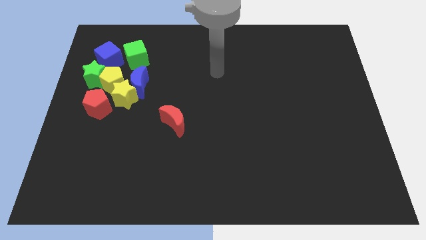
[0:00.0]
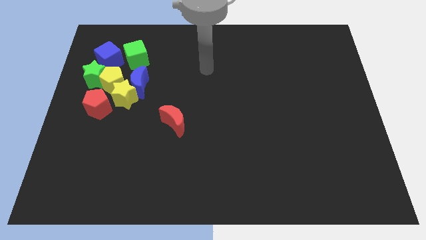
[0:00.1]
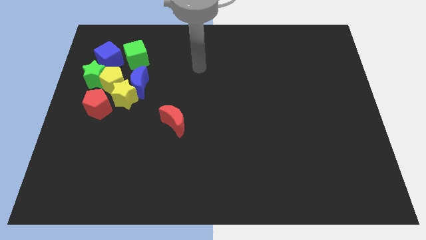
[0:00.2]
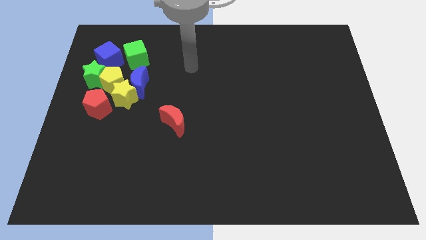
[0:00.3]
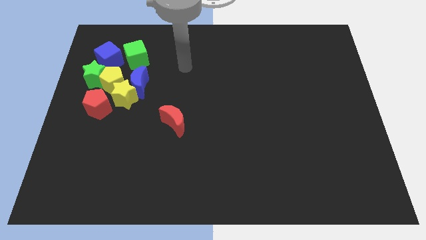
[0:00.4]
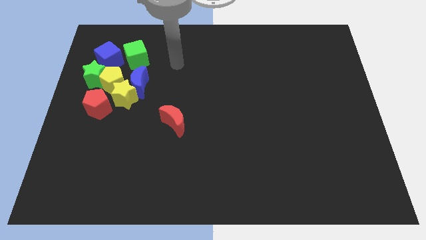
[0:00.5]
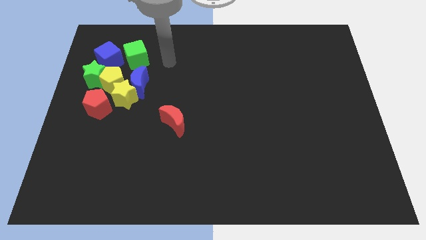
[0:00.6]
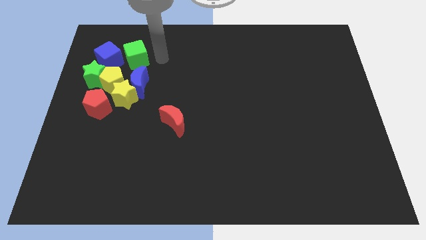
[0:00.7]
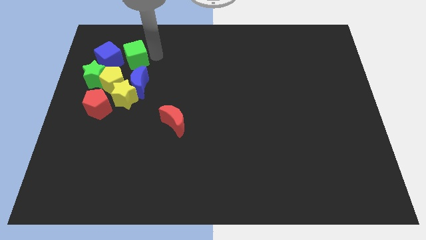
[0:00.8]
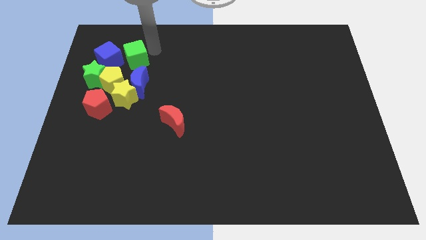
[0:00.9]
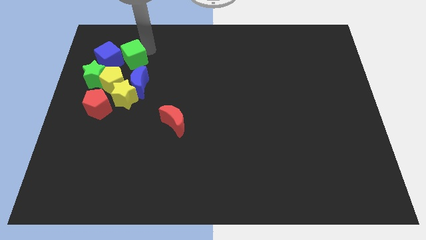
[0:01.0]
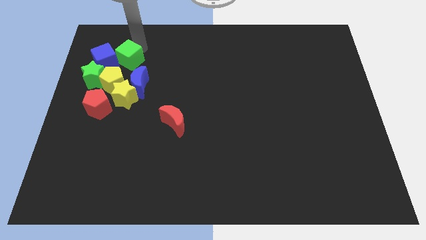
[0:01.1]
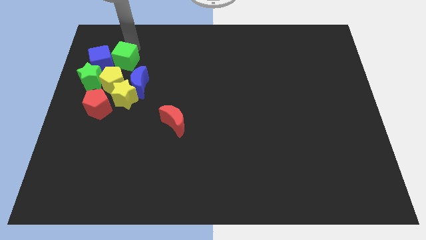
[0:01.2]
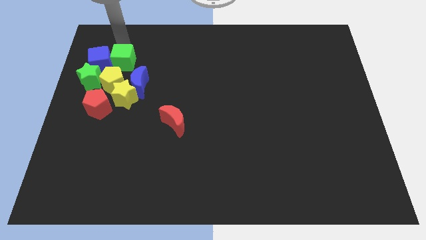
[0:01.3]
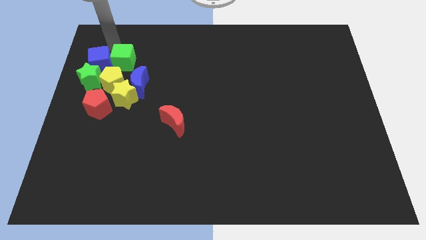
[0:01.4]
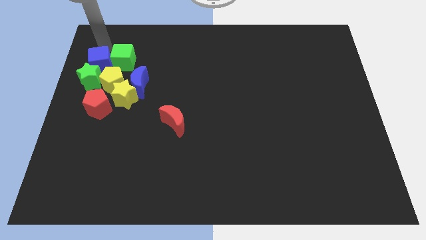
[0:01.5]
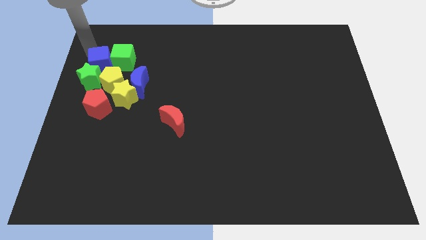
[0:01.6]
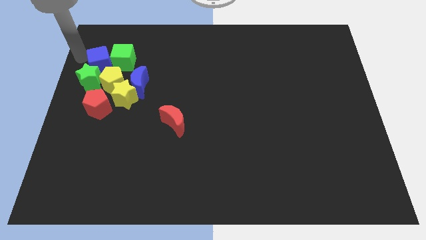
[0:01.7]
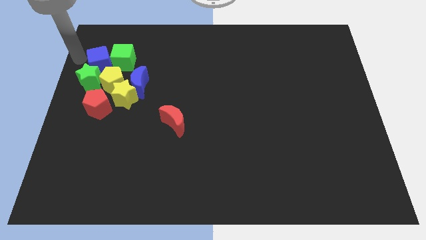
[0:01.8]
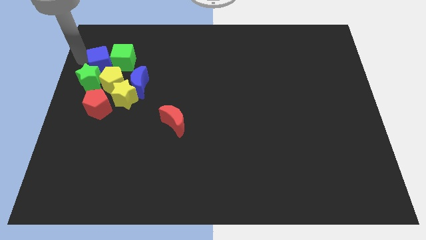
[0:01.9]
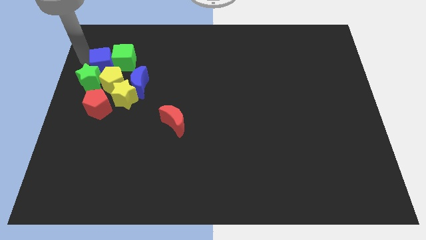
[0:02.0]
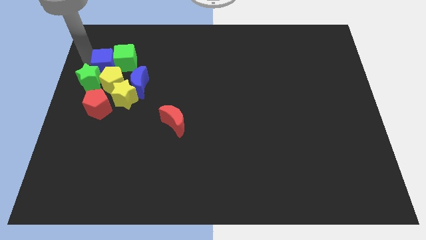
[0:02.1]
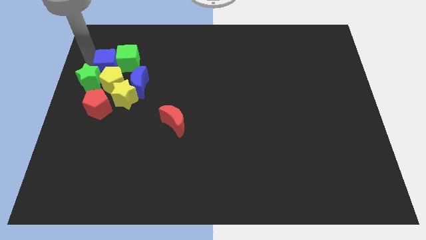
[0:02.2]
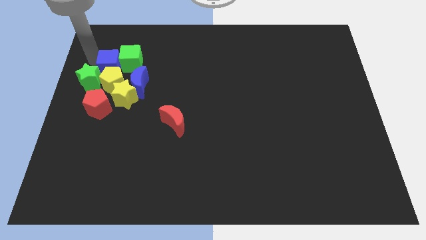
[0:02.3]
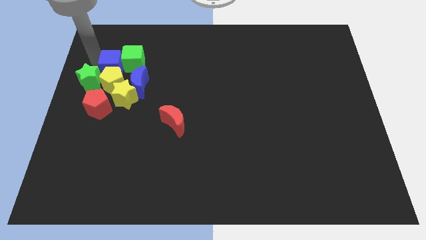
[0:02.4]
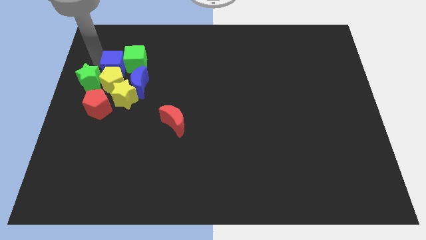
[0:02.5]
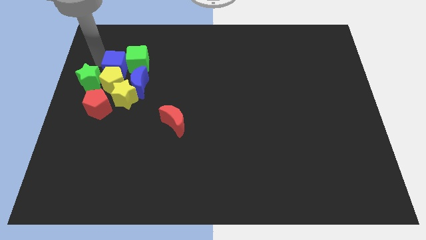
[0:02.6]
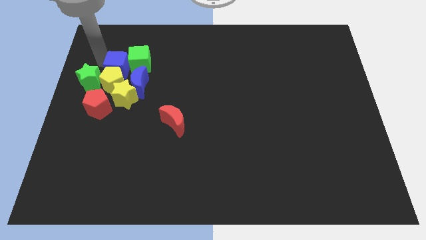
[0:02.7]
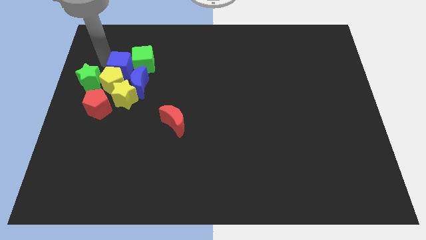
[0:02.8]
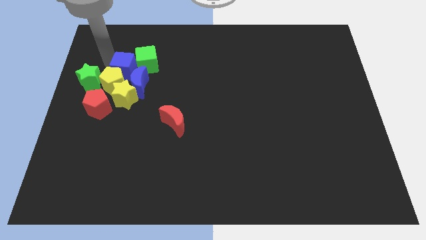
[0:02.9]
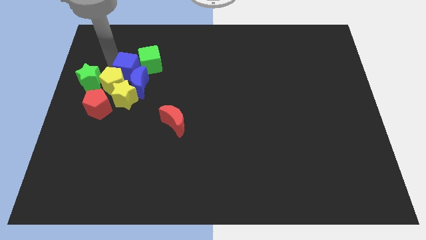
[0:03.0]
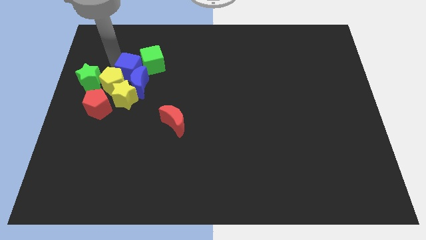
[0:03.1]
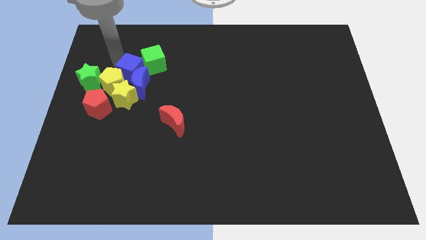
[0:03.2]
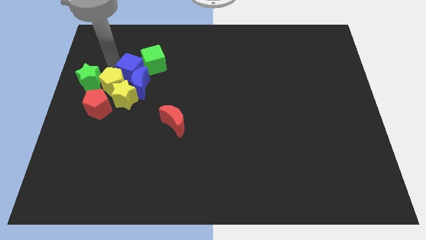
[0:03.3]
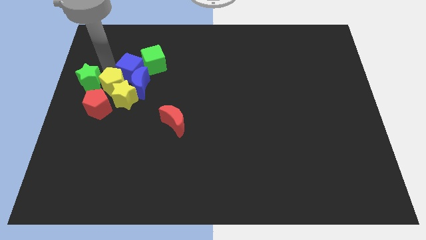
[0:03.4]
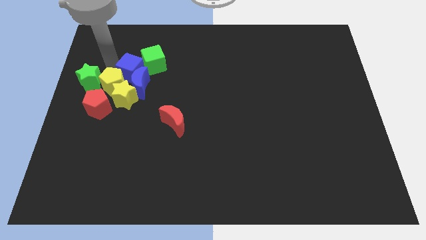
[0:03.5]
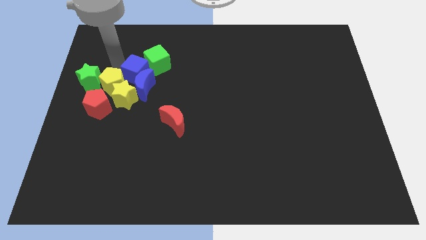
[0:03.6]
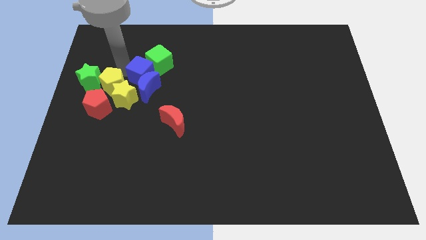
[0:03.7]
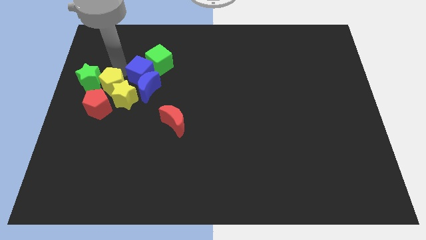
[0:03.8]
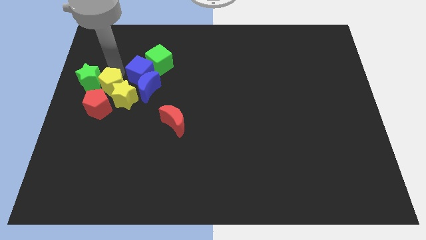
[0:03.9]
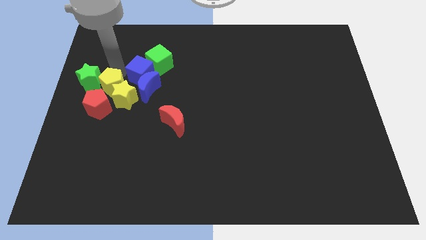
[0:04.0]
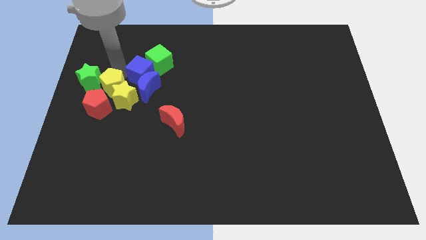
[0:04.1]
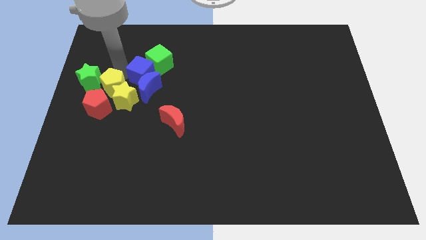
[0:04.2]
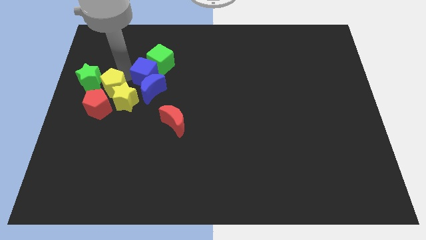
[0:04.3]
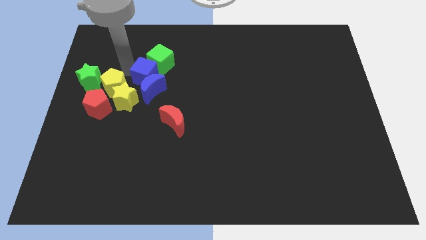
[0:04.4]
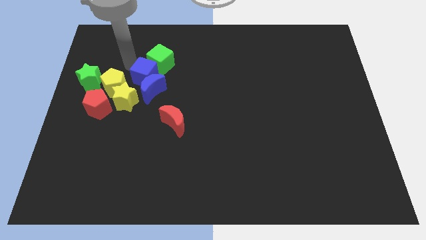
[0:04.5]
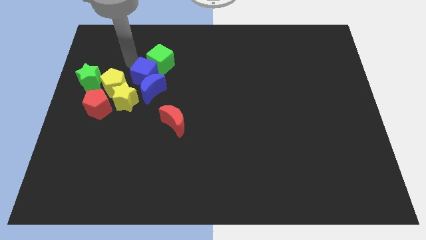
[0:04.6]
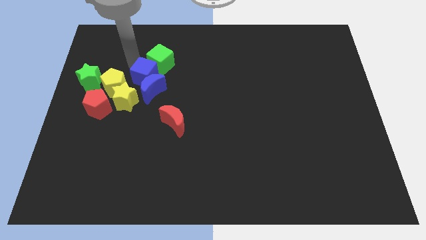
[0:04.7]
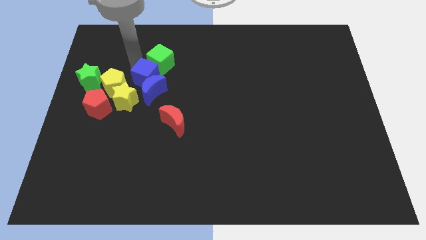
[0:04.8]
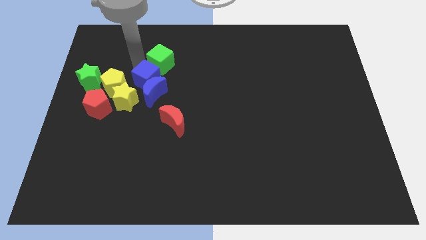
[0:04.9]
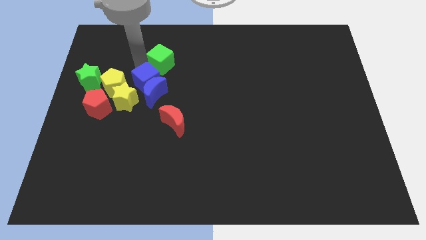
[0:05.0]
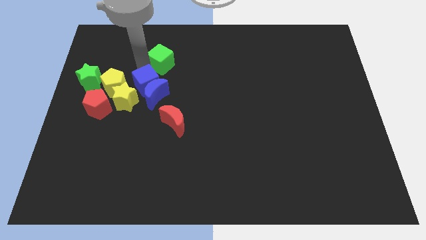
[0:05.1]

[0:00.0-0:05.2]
slide the blue cube to the right side of the yellow star

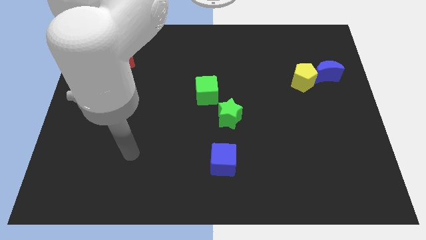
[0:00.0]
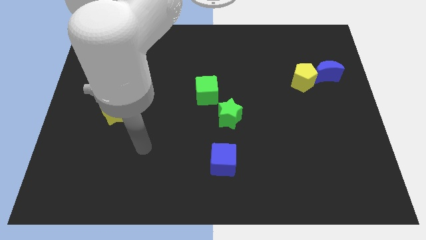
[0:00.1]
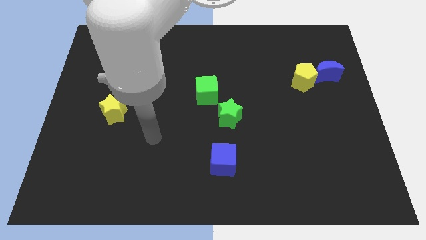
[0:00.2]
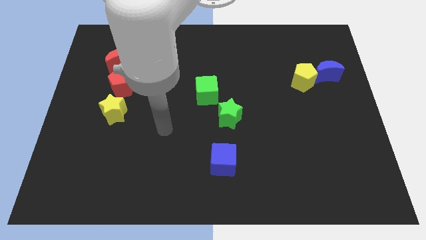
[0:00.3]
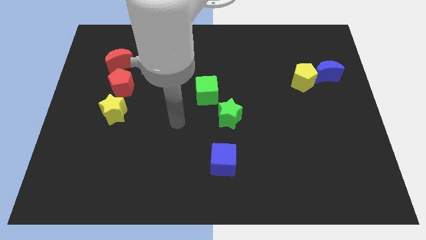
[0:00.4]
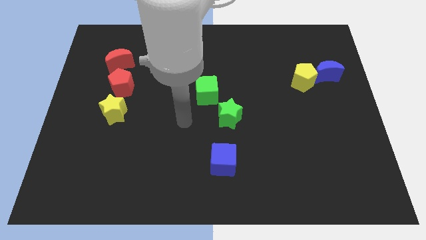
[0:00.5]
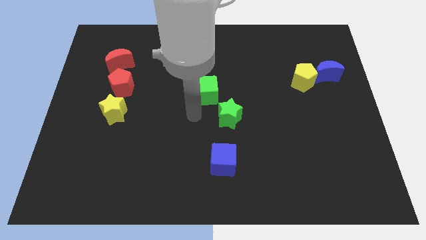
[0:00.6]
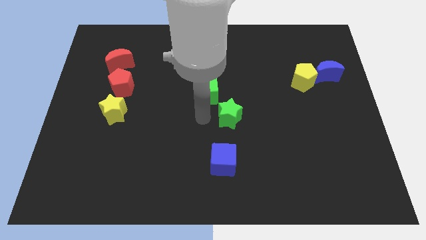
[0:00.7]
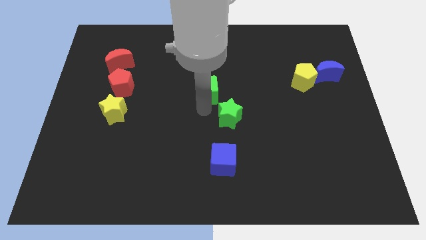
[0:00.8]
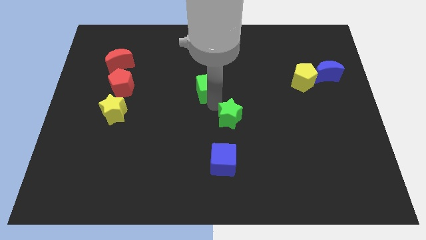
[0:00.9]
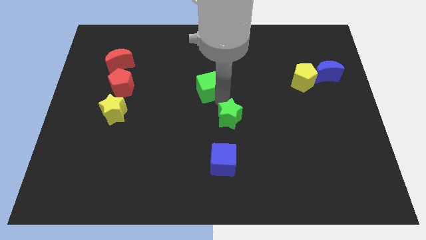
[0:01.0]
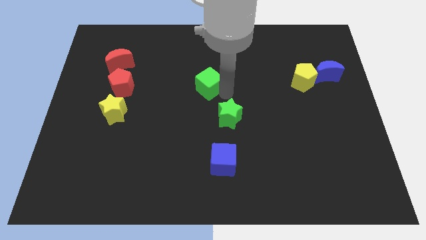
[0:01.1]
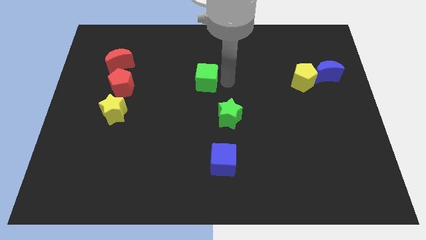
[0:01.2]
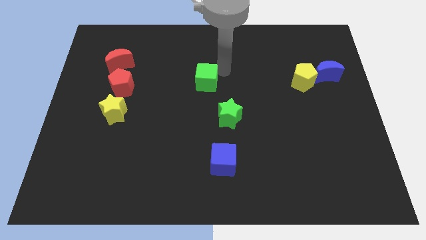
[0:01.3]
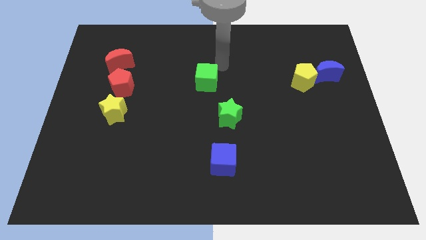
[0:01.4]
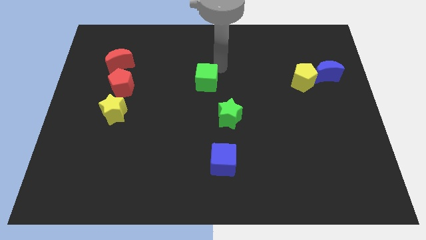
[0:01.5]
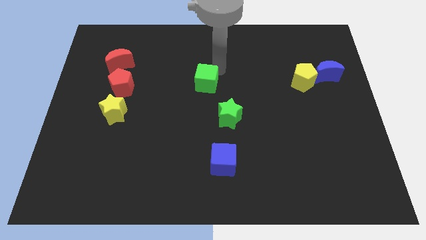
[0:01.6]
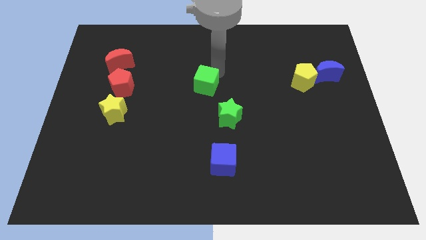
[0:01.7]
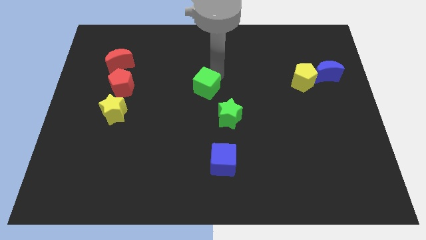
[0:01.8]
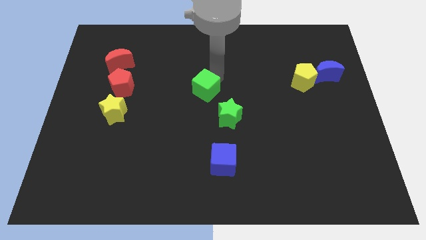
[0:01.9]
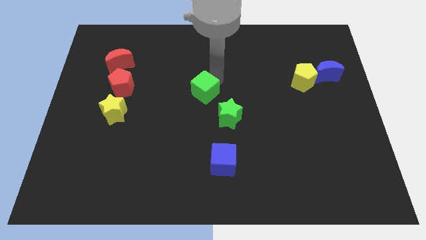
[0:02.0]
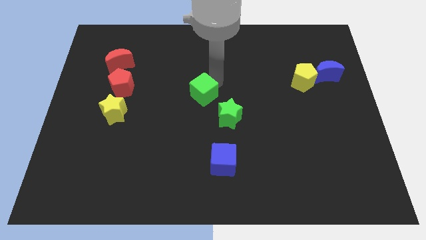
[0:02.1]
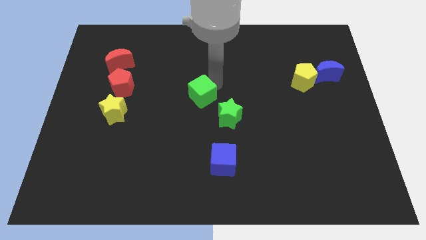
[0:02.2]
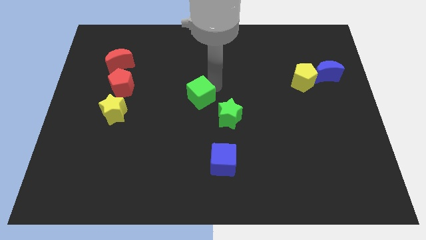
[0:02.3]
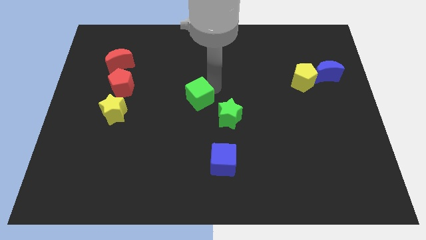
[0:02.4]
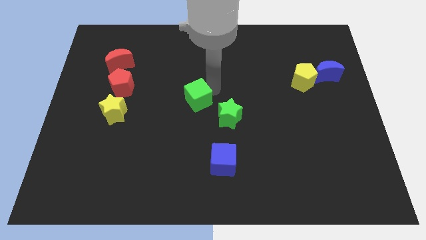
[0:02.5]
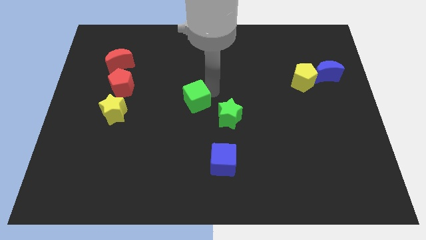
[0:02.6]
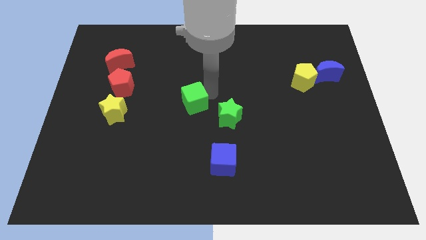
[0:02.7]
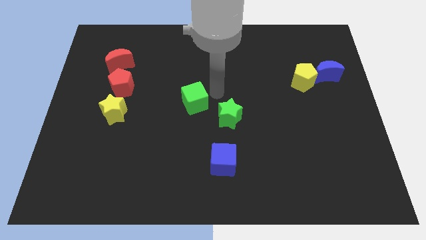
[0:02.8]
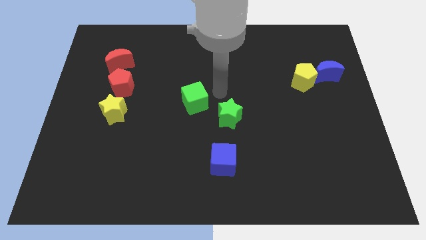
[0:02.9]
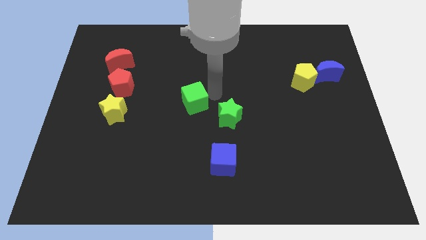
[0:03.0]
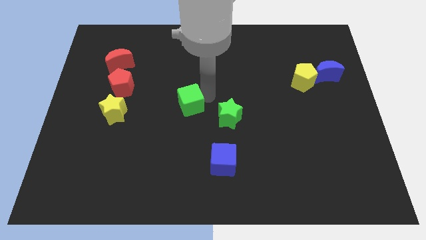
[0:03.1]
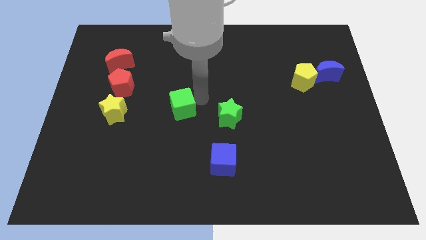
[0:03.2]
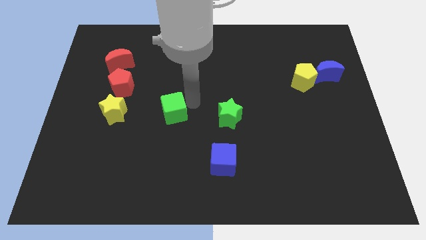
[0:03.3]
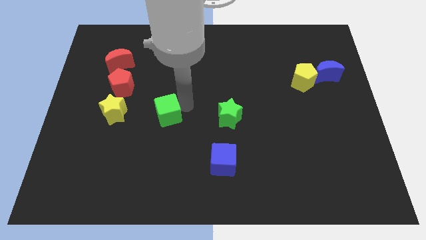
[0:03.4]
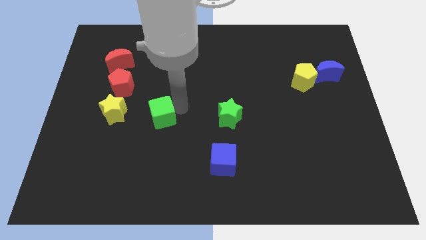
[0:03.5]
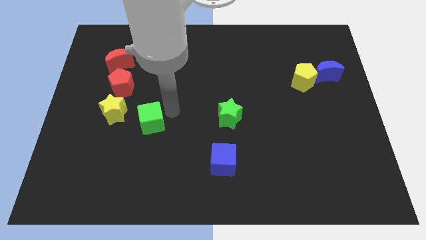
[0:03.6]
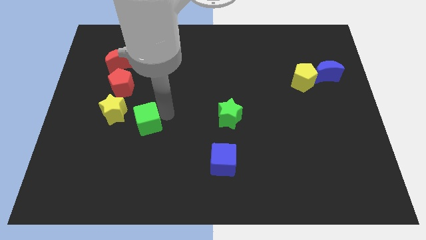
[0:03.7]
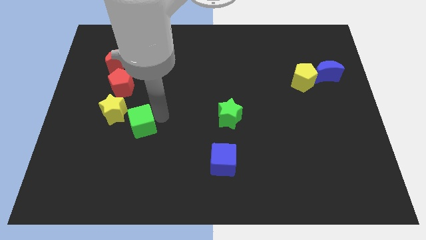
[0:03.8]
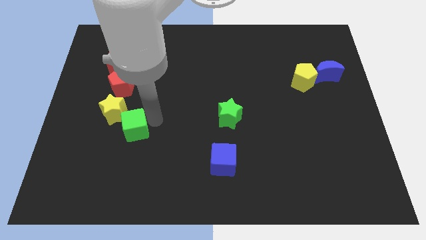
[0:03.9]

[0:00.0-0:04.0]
slide the green cube to the bottom side of the red pentagon
